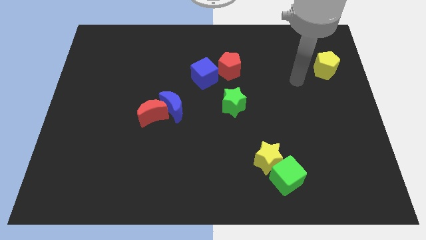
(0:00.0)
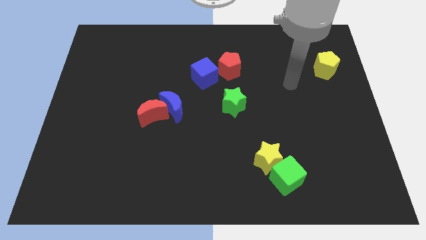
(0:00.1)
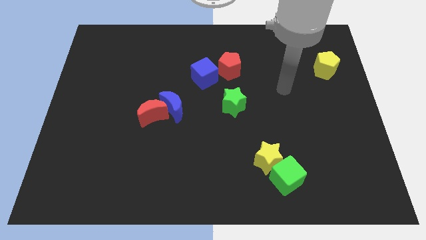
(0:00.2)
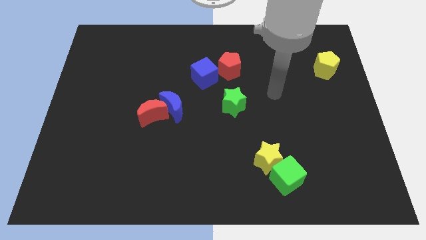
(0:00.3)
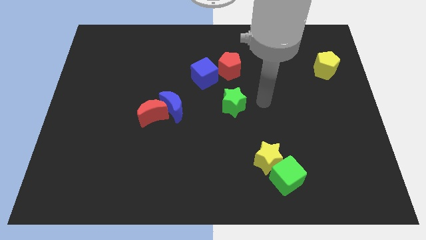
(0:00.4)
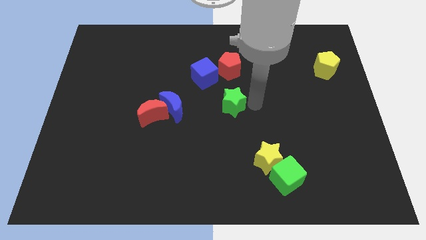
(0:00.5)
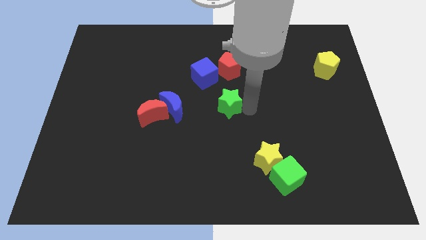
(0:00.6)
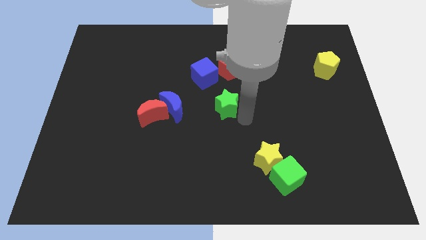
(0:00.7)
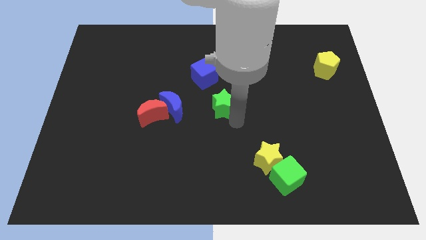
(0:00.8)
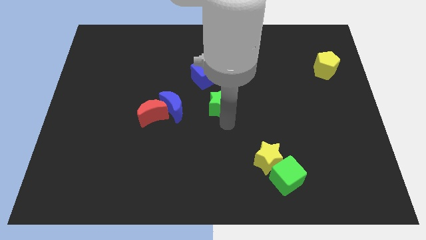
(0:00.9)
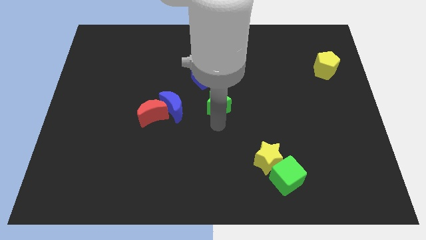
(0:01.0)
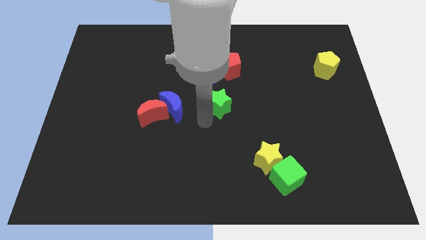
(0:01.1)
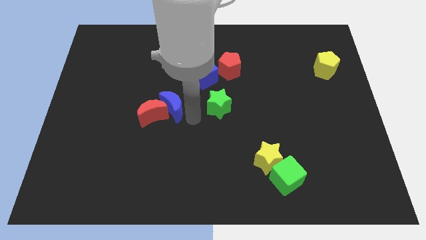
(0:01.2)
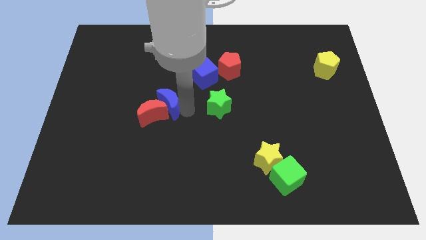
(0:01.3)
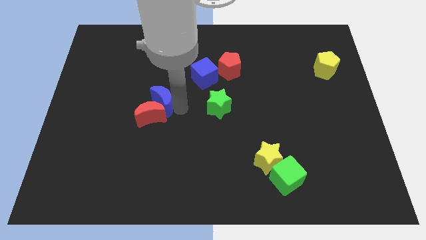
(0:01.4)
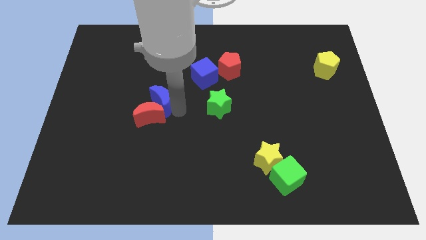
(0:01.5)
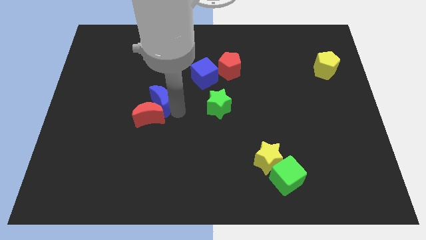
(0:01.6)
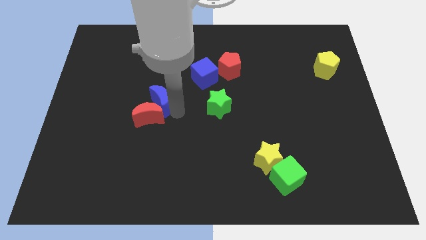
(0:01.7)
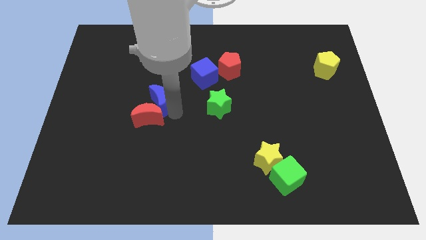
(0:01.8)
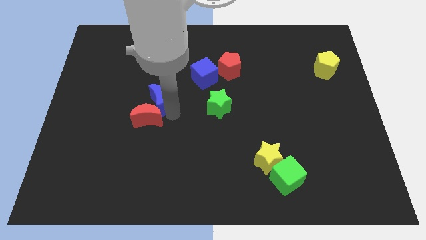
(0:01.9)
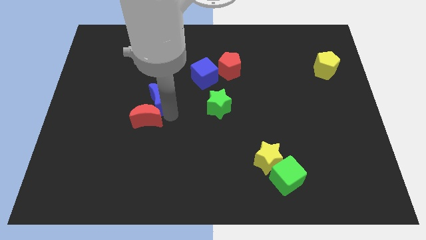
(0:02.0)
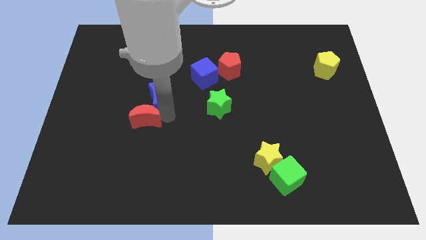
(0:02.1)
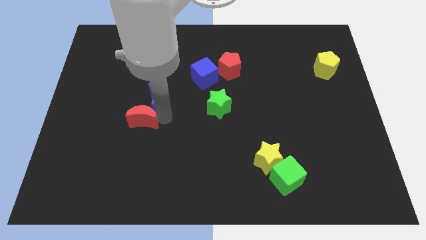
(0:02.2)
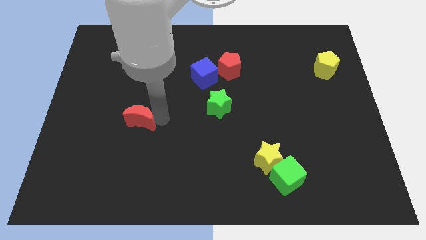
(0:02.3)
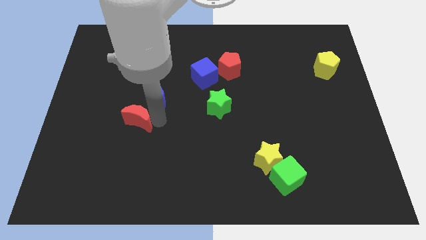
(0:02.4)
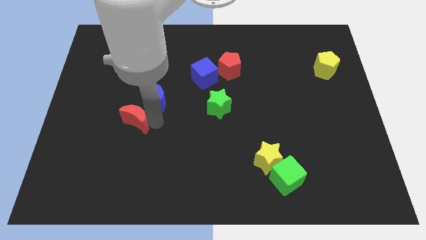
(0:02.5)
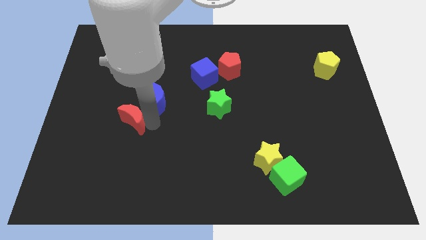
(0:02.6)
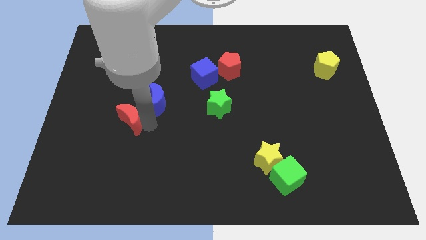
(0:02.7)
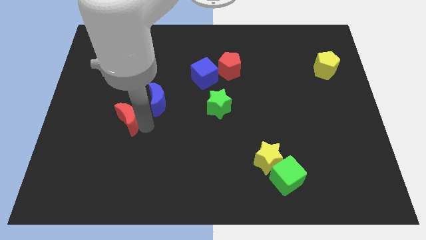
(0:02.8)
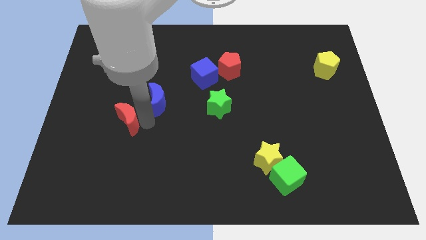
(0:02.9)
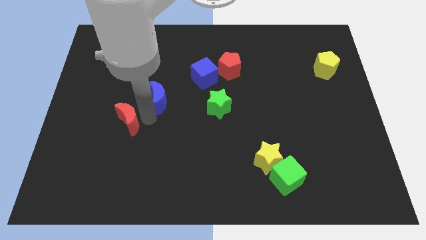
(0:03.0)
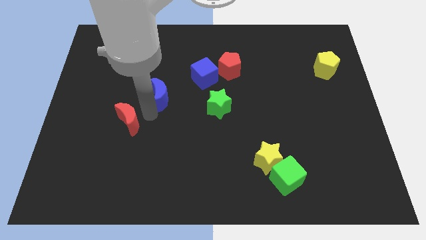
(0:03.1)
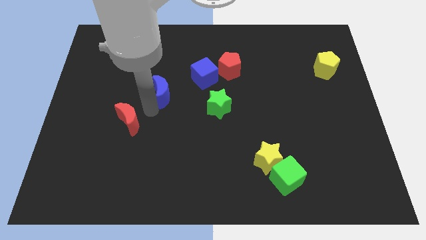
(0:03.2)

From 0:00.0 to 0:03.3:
separate the red moon from the blue moon

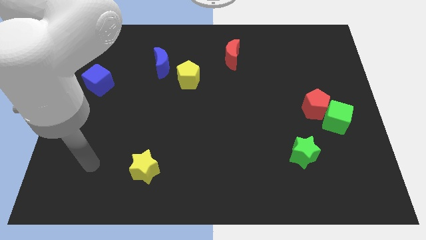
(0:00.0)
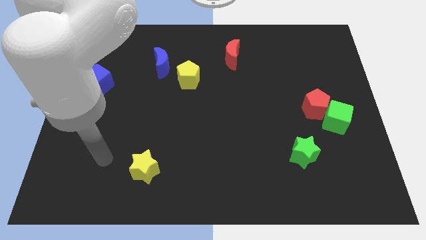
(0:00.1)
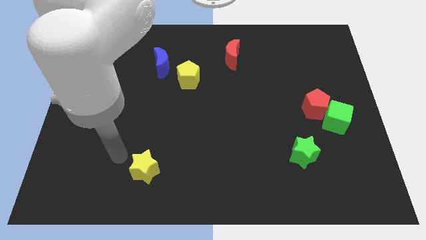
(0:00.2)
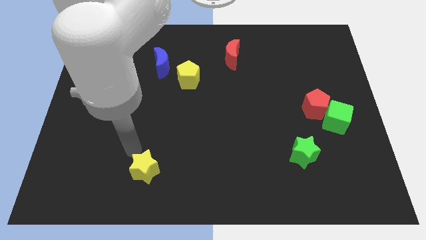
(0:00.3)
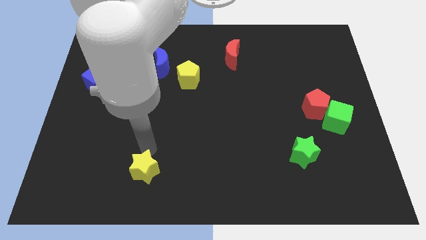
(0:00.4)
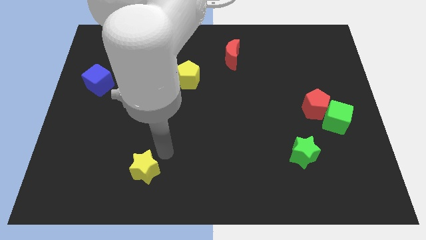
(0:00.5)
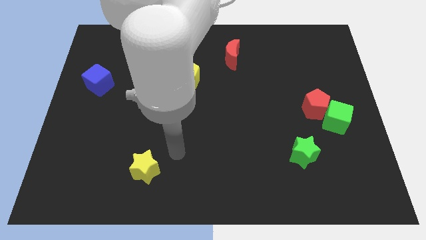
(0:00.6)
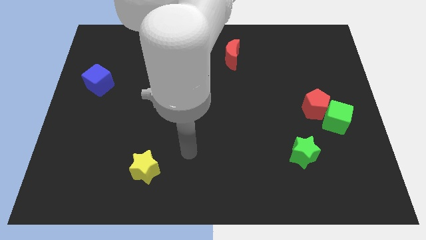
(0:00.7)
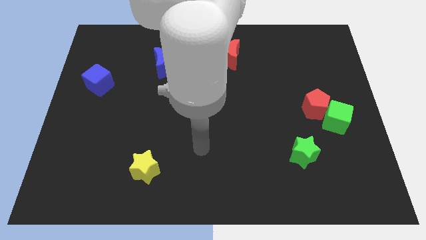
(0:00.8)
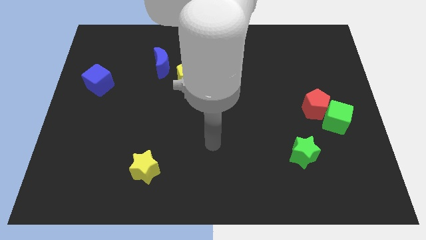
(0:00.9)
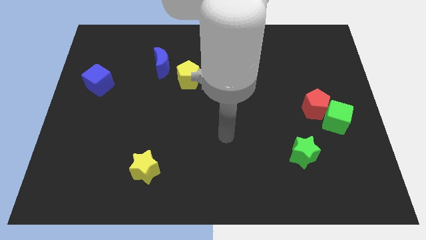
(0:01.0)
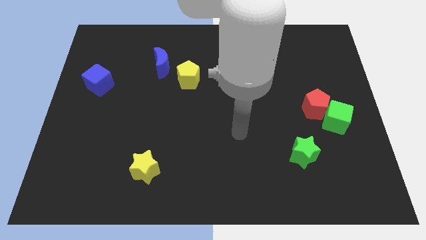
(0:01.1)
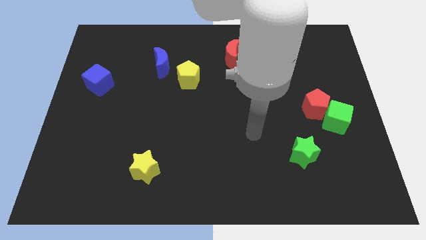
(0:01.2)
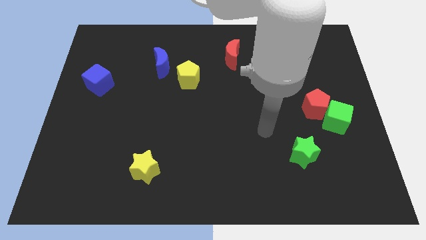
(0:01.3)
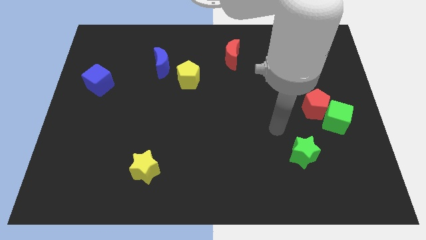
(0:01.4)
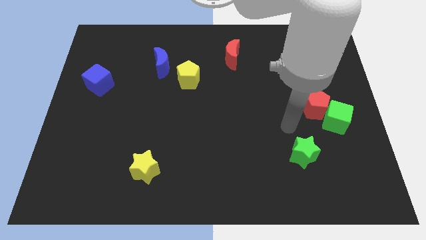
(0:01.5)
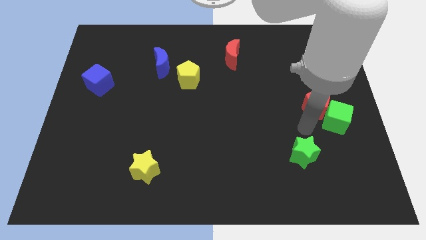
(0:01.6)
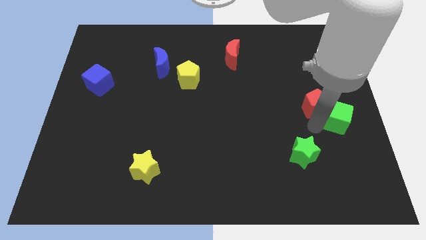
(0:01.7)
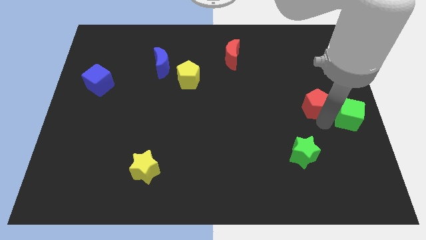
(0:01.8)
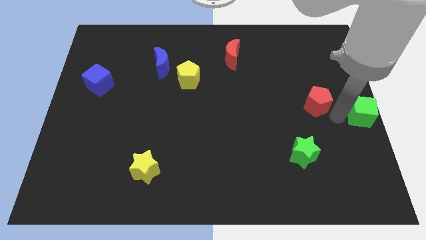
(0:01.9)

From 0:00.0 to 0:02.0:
pull the red pentagon apart from the green cube

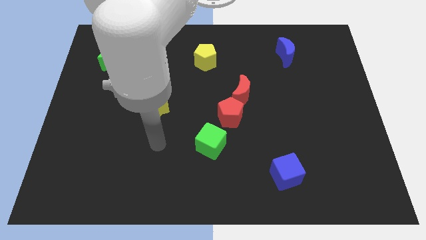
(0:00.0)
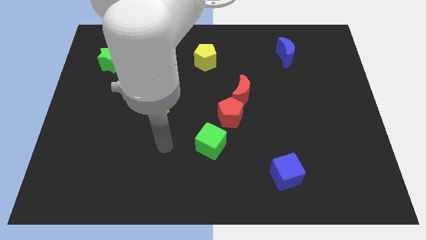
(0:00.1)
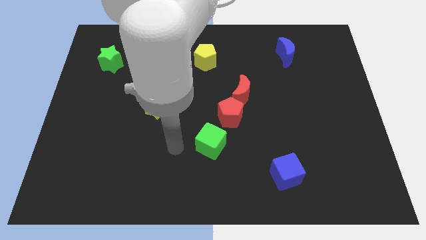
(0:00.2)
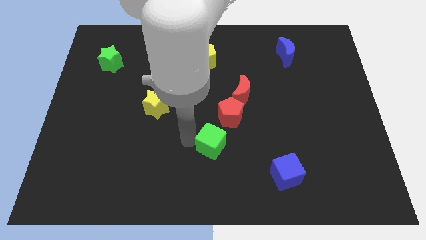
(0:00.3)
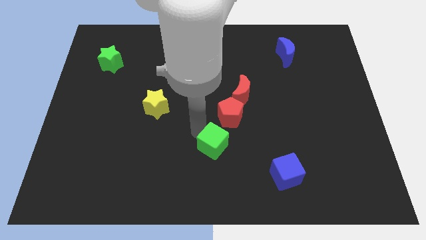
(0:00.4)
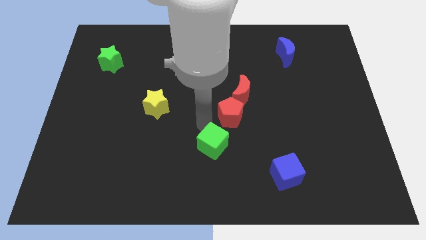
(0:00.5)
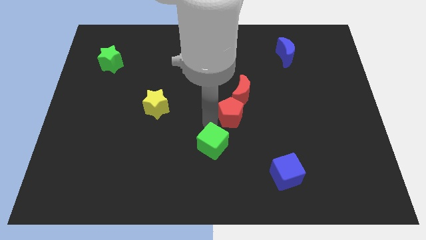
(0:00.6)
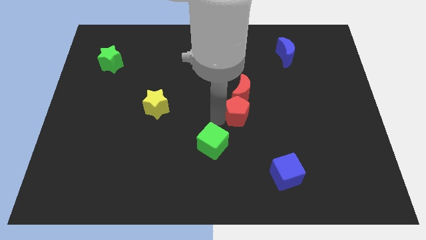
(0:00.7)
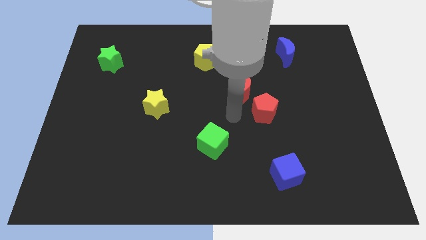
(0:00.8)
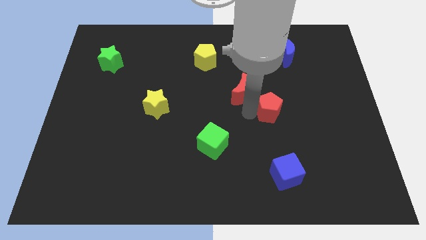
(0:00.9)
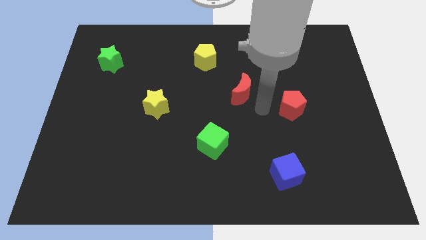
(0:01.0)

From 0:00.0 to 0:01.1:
separate the red moon from the red pentagon

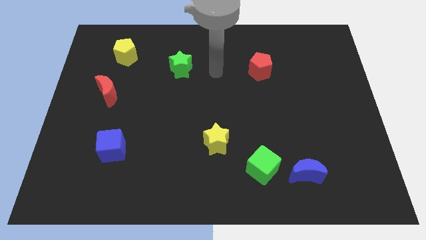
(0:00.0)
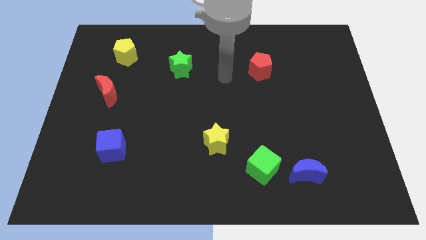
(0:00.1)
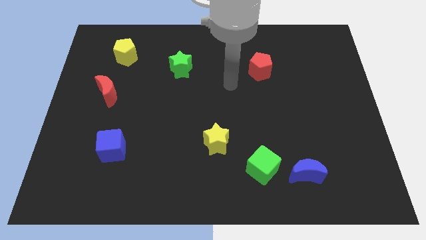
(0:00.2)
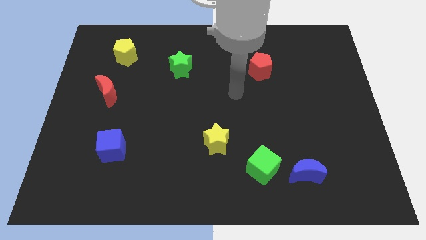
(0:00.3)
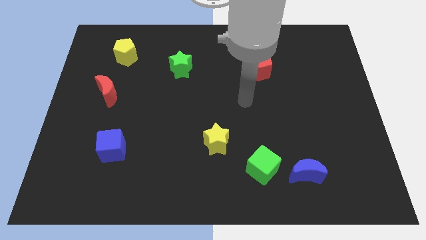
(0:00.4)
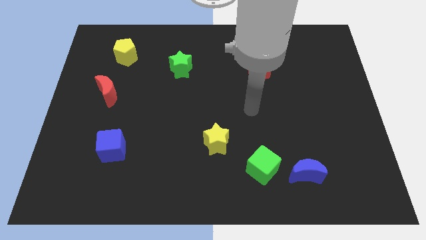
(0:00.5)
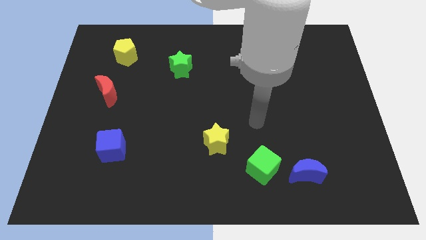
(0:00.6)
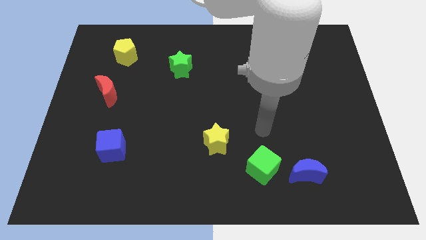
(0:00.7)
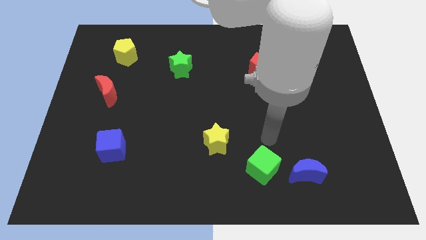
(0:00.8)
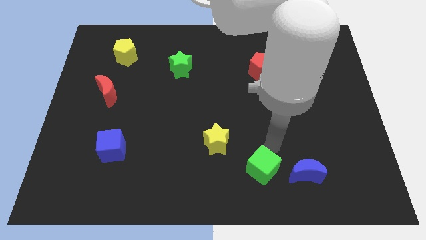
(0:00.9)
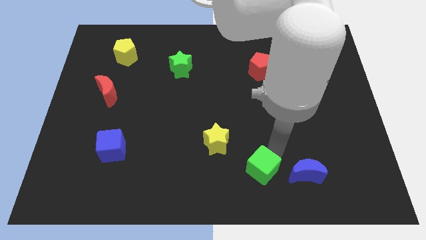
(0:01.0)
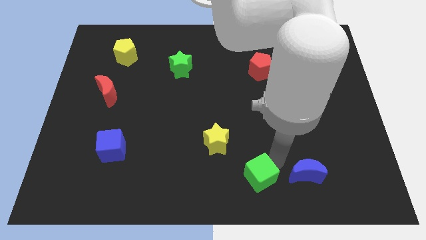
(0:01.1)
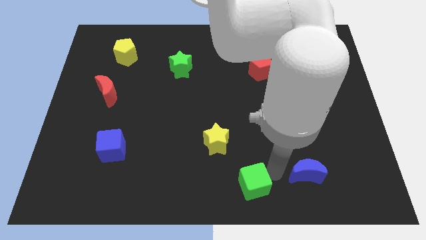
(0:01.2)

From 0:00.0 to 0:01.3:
move the blue moon away from the green cube

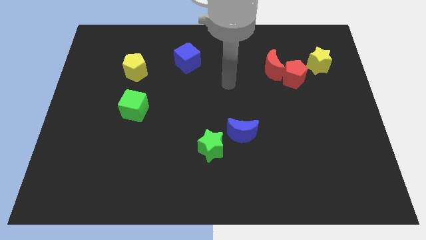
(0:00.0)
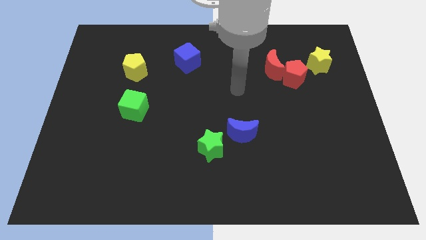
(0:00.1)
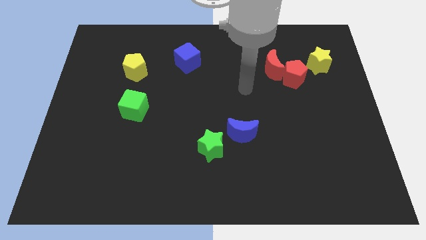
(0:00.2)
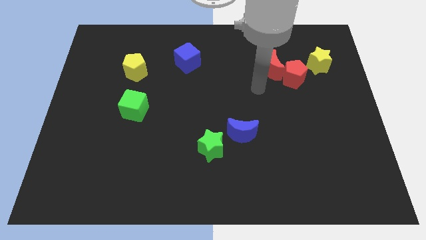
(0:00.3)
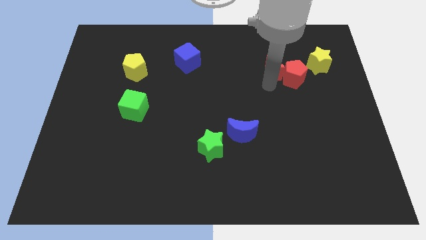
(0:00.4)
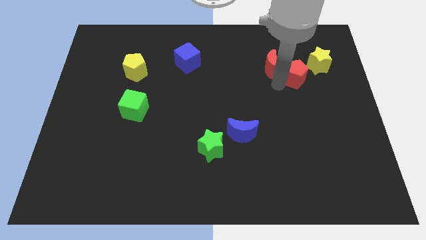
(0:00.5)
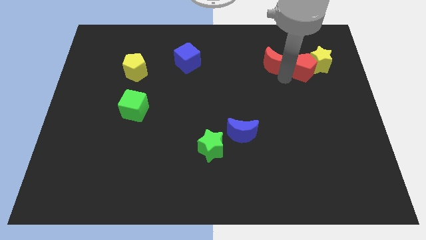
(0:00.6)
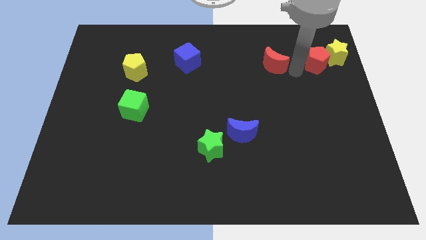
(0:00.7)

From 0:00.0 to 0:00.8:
pull the red moon apart from the red pentagon

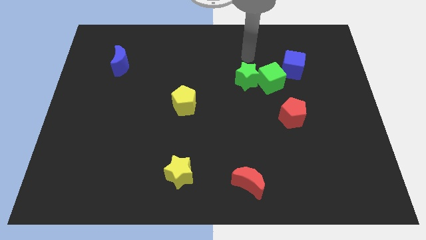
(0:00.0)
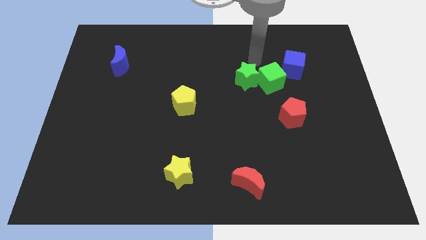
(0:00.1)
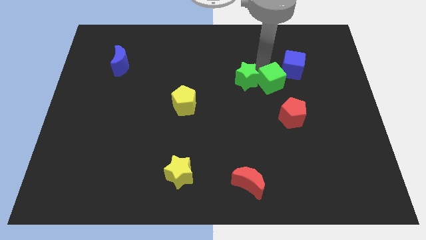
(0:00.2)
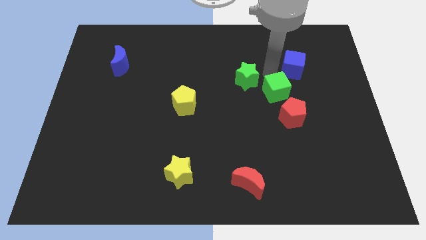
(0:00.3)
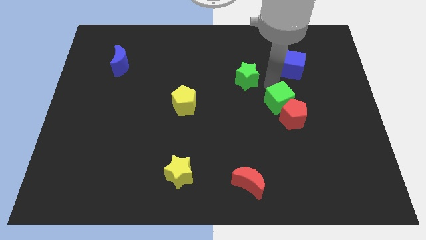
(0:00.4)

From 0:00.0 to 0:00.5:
pull the green star apart from the green cube

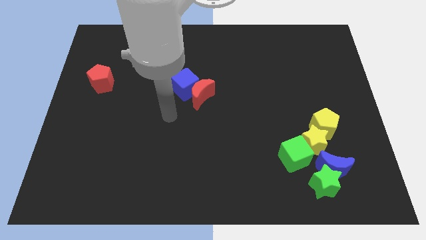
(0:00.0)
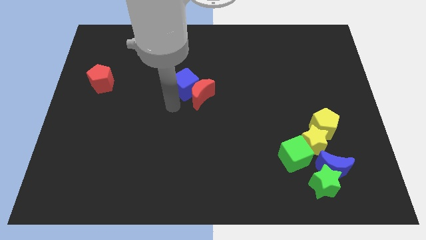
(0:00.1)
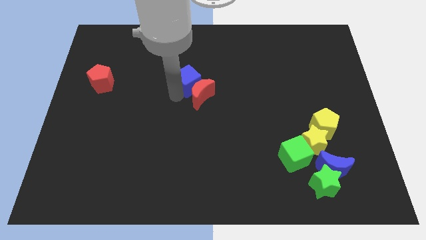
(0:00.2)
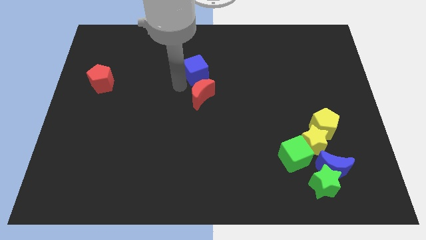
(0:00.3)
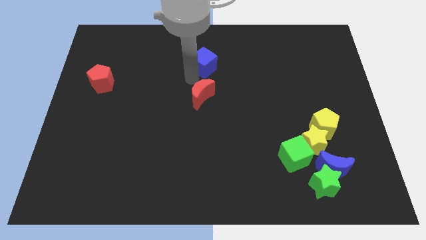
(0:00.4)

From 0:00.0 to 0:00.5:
pull the red moon apart from the blue cube

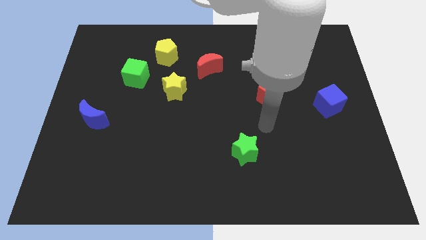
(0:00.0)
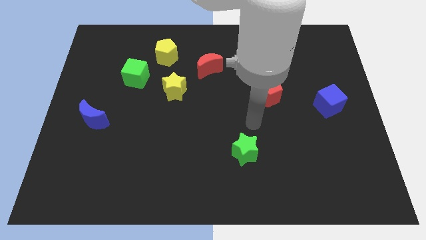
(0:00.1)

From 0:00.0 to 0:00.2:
pull the green cube apart from the yellow pentagon
